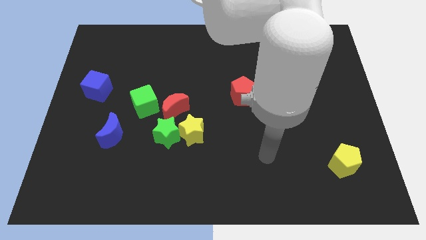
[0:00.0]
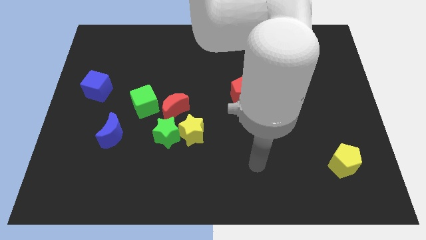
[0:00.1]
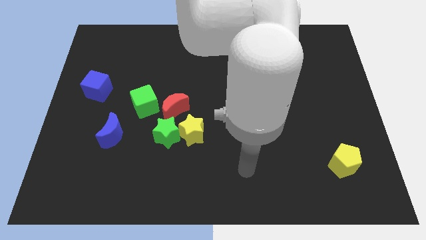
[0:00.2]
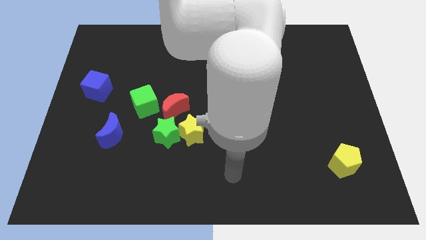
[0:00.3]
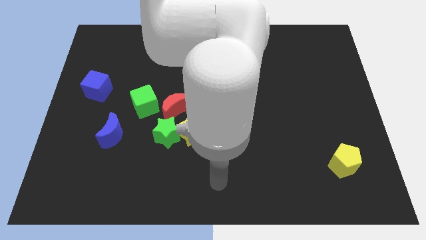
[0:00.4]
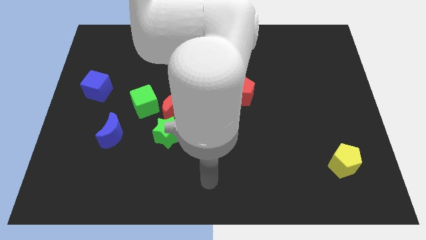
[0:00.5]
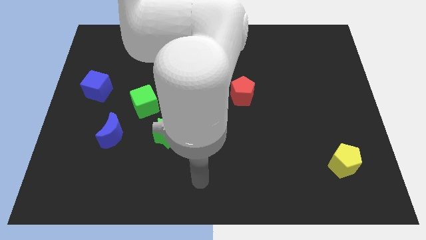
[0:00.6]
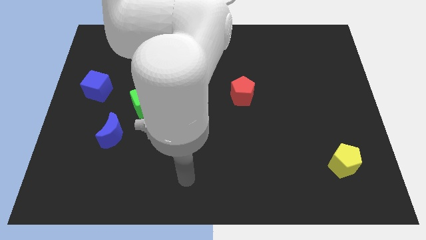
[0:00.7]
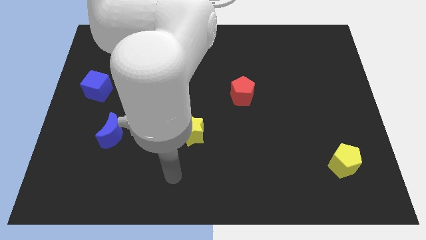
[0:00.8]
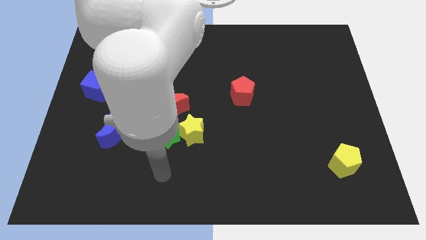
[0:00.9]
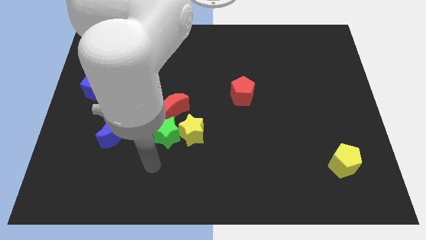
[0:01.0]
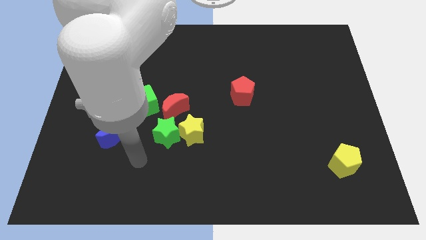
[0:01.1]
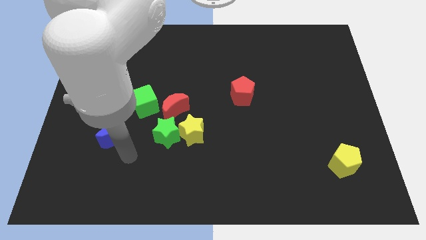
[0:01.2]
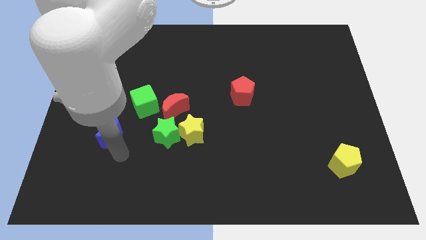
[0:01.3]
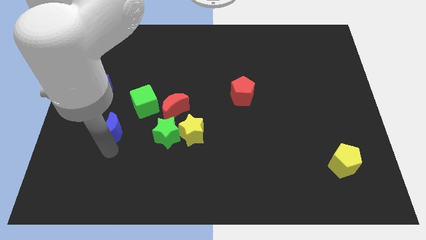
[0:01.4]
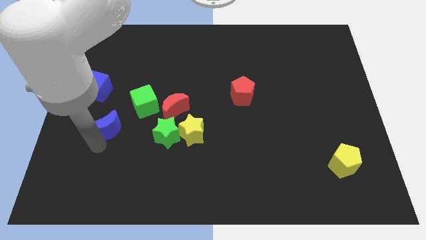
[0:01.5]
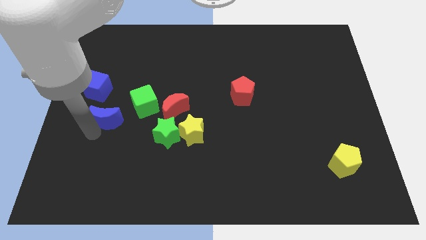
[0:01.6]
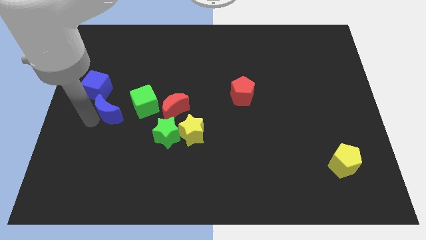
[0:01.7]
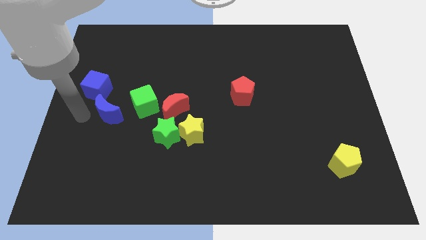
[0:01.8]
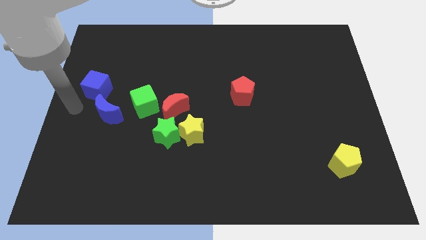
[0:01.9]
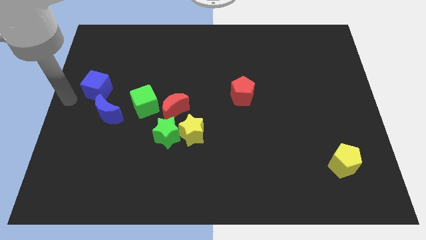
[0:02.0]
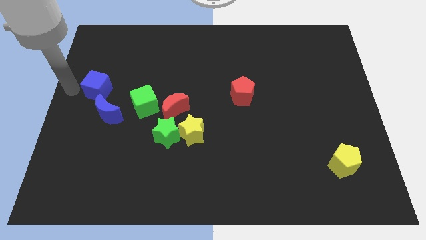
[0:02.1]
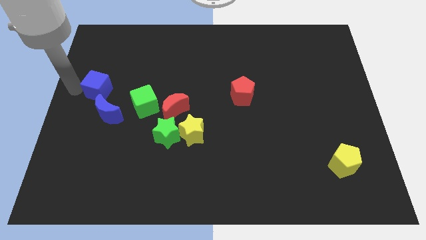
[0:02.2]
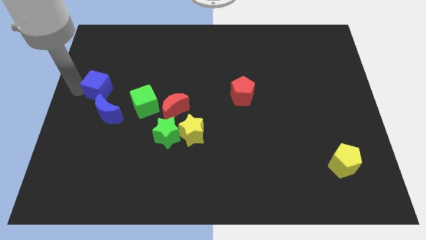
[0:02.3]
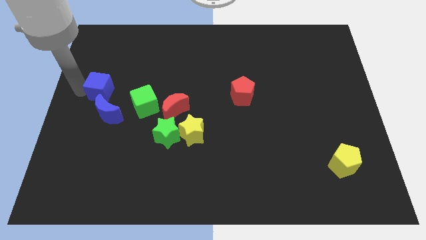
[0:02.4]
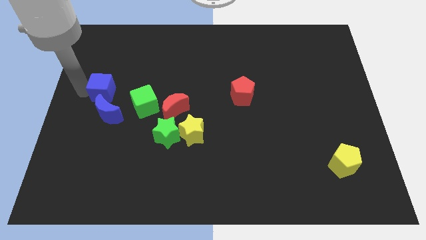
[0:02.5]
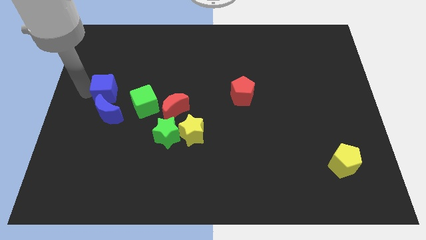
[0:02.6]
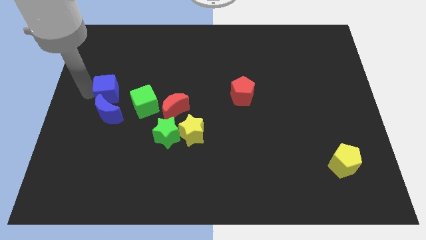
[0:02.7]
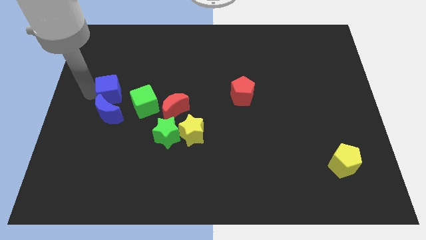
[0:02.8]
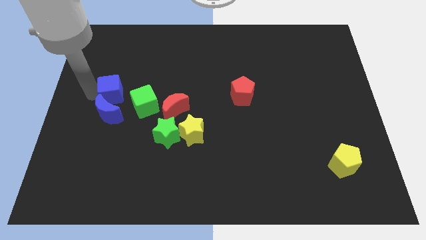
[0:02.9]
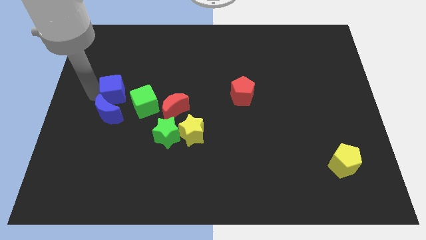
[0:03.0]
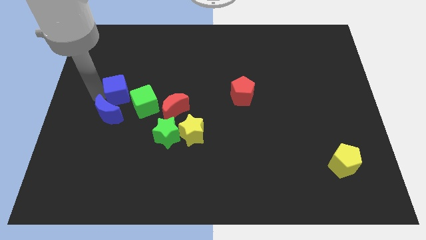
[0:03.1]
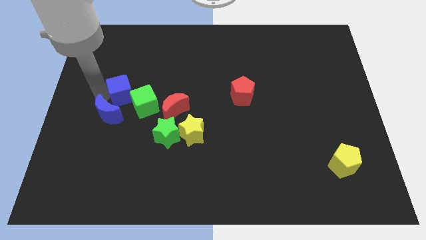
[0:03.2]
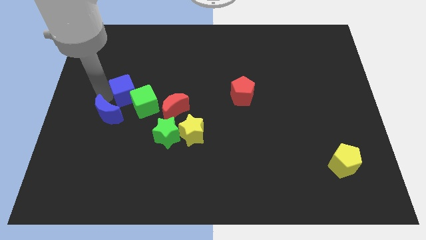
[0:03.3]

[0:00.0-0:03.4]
slide the blue cube to the right somewhat

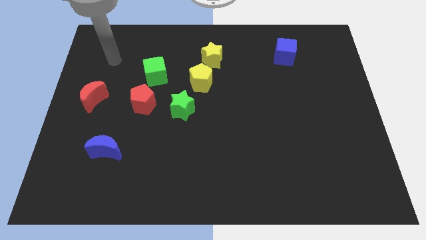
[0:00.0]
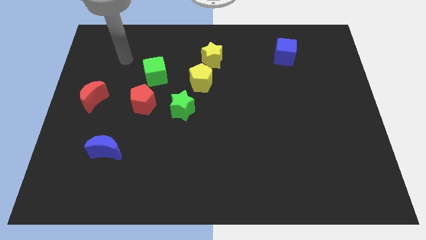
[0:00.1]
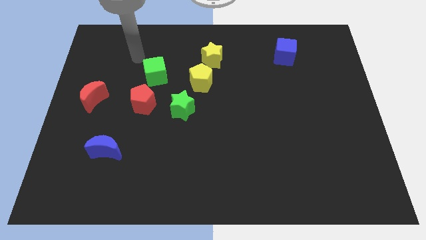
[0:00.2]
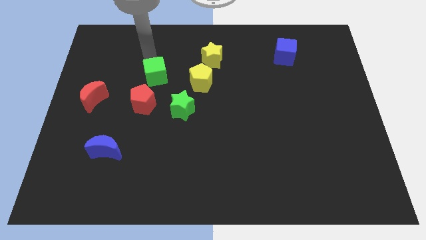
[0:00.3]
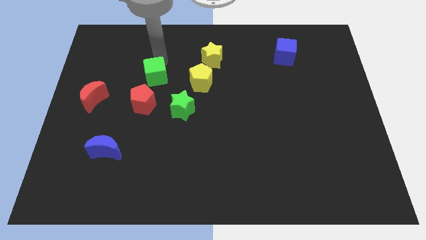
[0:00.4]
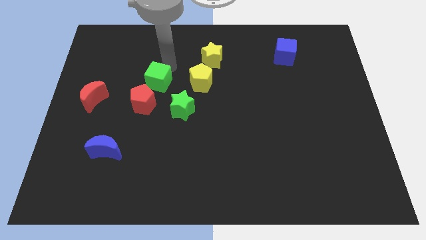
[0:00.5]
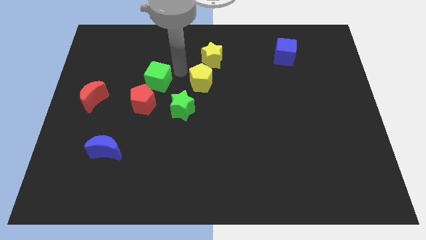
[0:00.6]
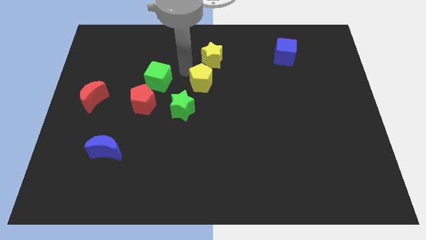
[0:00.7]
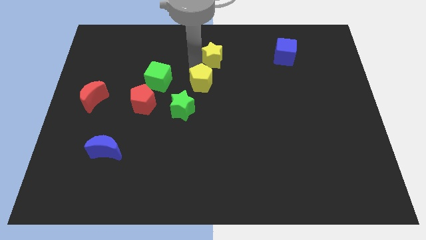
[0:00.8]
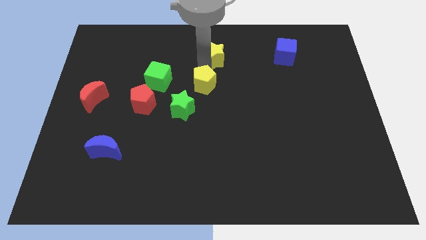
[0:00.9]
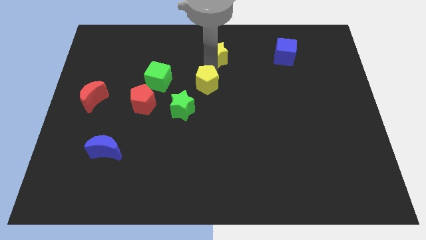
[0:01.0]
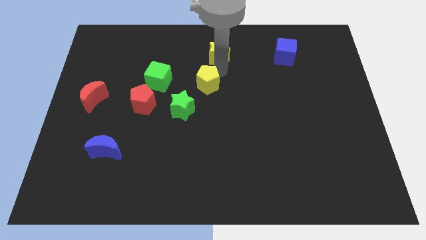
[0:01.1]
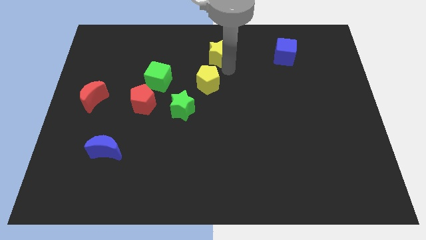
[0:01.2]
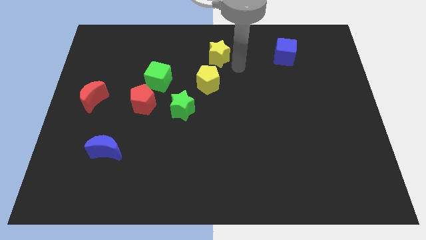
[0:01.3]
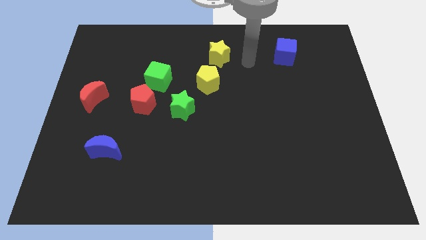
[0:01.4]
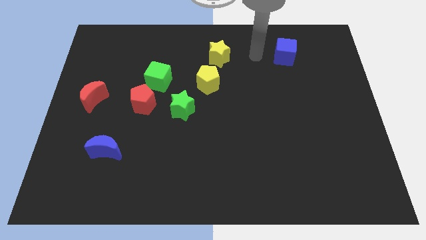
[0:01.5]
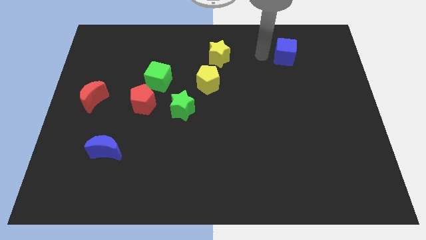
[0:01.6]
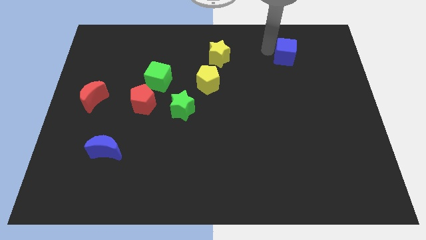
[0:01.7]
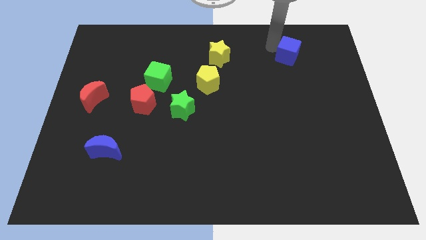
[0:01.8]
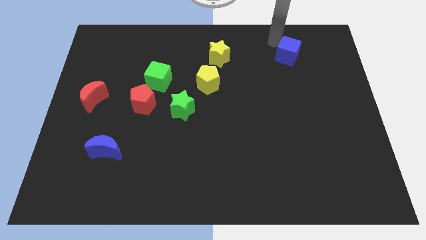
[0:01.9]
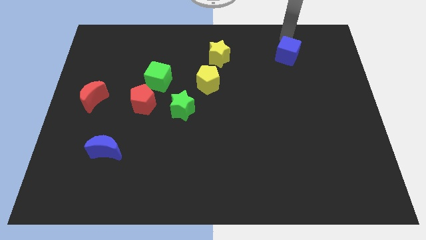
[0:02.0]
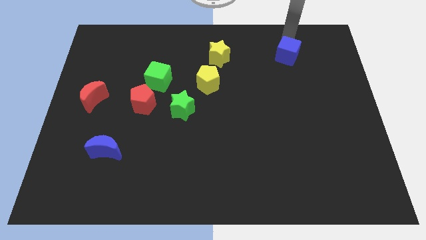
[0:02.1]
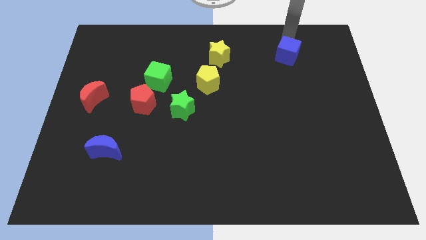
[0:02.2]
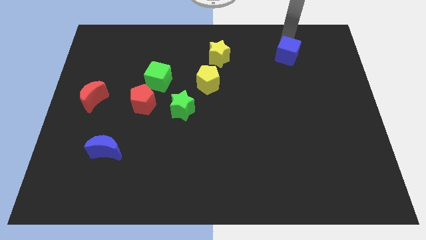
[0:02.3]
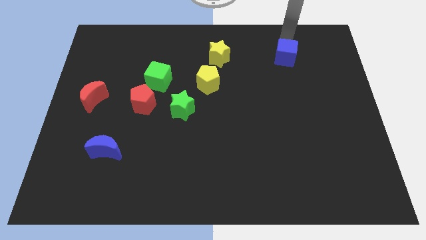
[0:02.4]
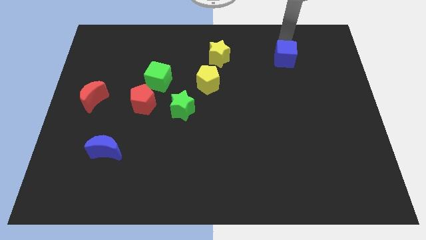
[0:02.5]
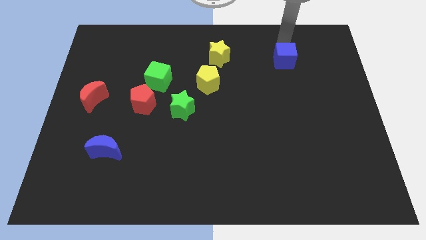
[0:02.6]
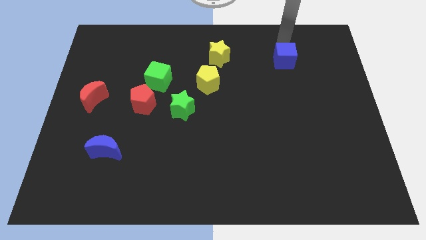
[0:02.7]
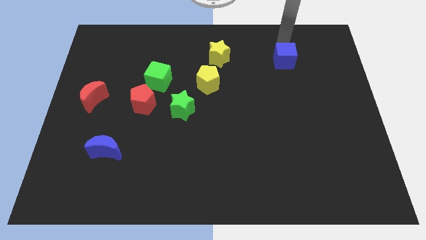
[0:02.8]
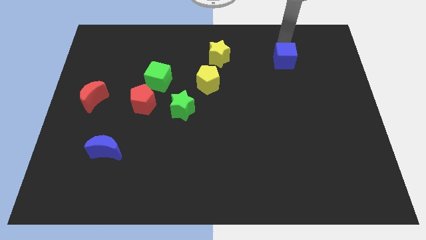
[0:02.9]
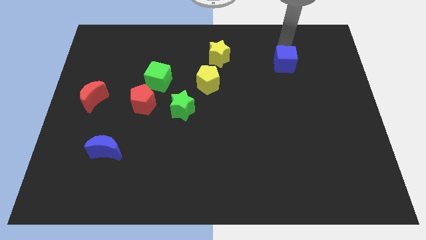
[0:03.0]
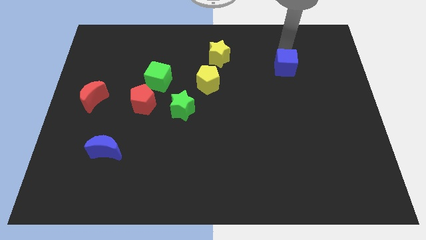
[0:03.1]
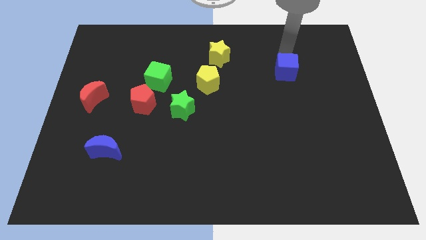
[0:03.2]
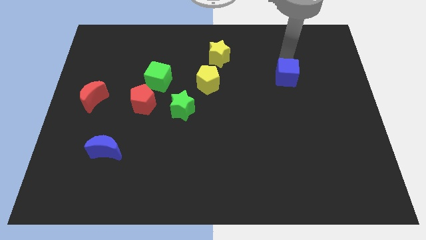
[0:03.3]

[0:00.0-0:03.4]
slightly move the blue cube down

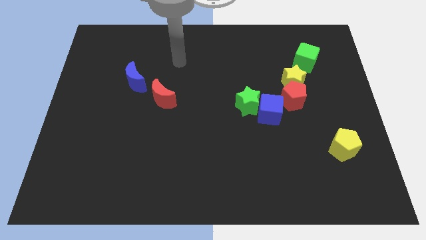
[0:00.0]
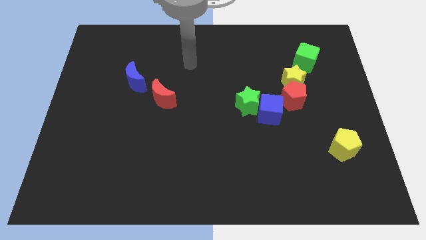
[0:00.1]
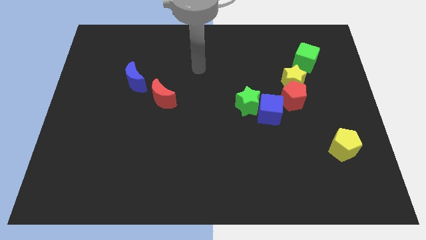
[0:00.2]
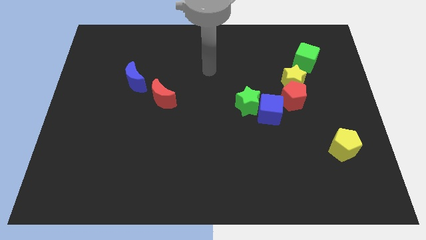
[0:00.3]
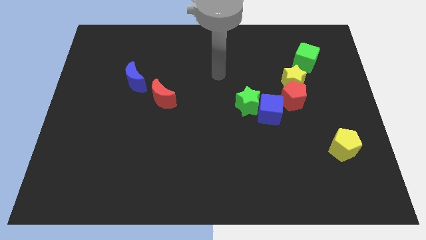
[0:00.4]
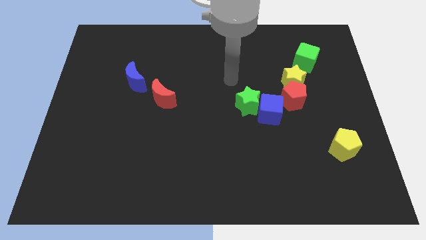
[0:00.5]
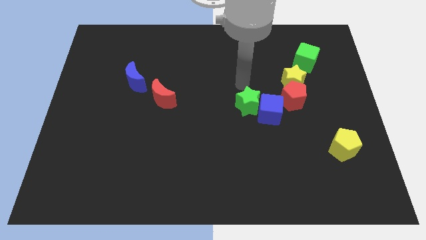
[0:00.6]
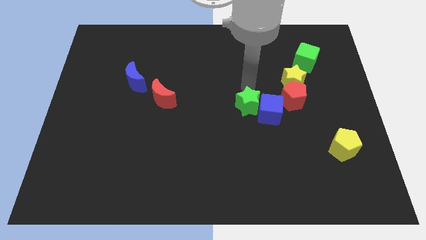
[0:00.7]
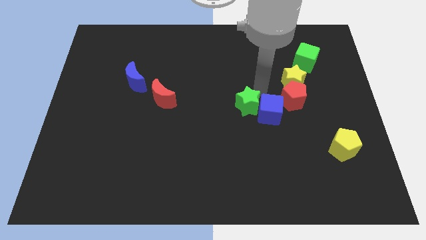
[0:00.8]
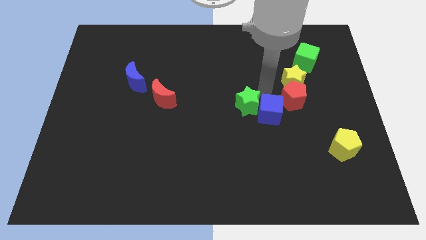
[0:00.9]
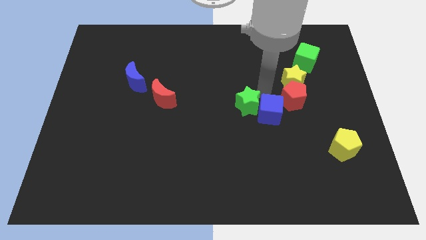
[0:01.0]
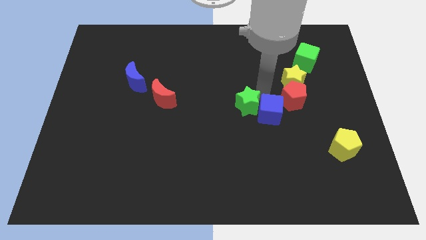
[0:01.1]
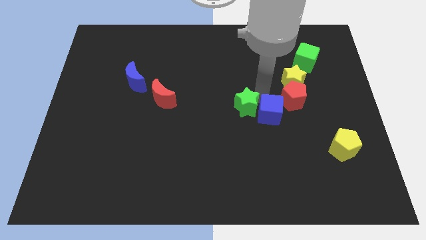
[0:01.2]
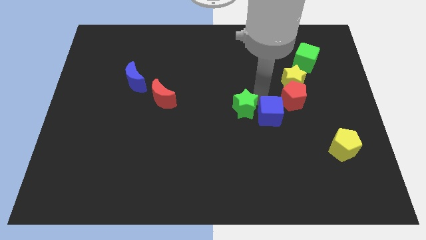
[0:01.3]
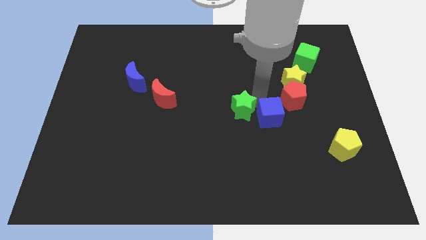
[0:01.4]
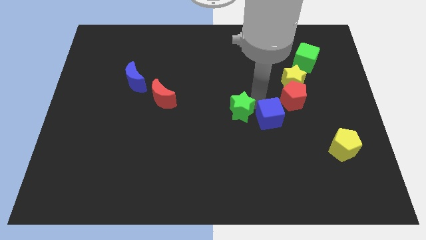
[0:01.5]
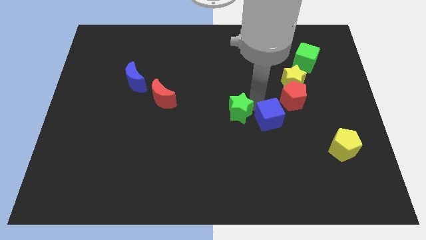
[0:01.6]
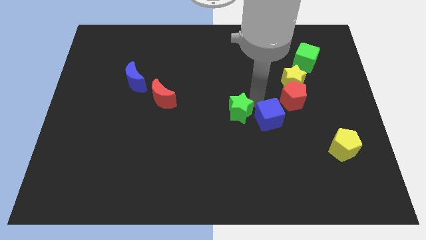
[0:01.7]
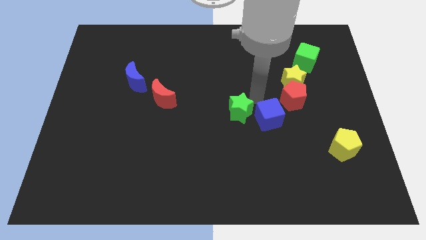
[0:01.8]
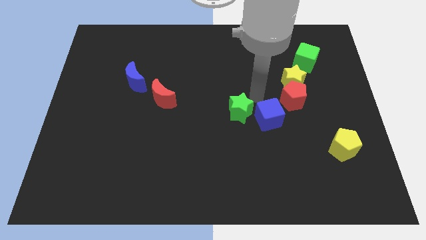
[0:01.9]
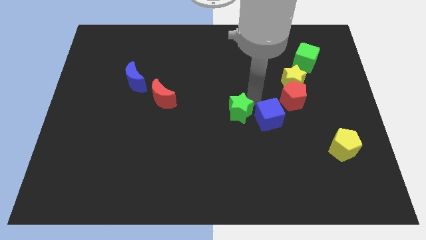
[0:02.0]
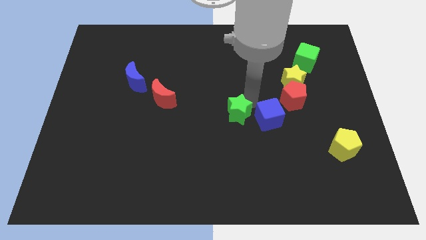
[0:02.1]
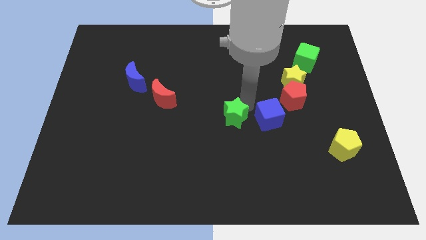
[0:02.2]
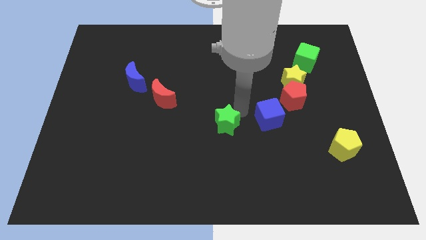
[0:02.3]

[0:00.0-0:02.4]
move the green star somewhat diagonally down and to the left
